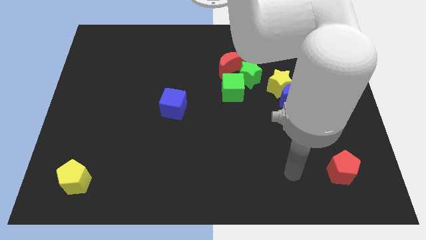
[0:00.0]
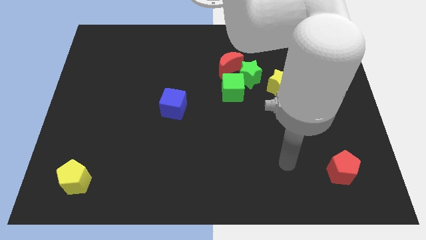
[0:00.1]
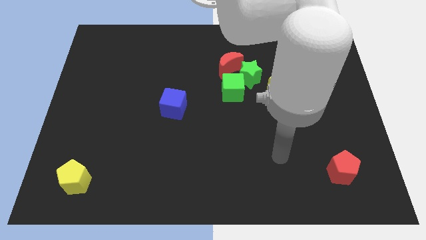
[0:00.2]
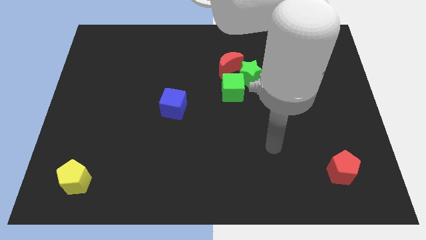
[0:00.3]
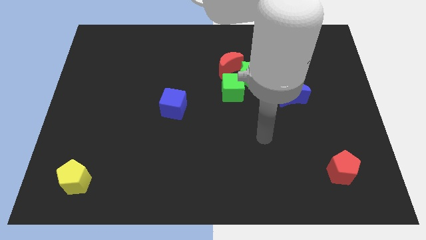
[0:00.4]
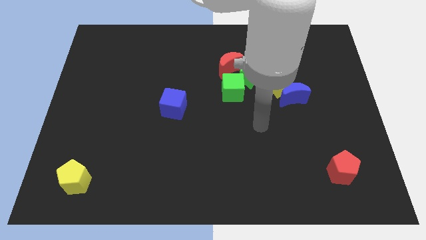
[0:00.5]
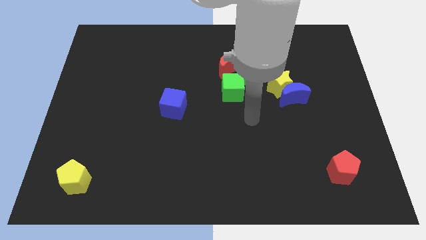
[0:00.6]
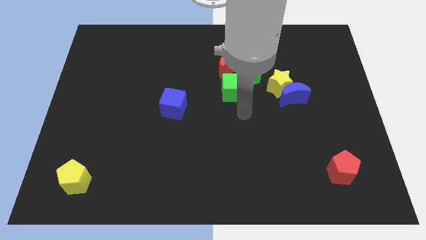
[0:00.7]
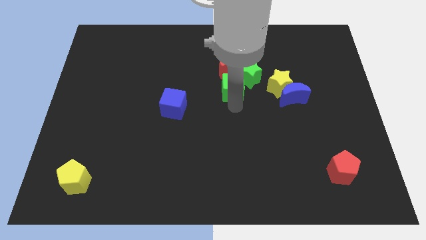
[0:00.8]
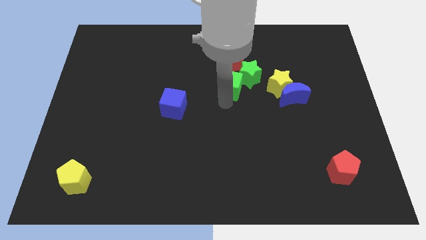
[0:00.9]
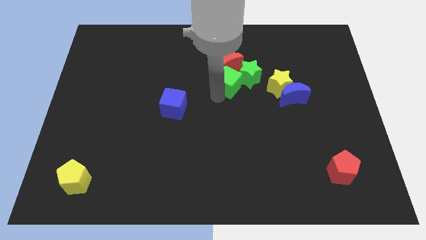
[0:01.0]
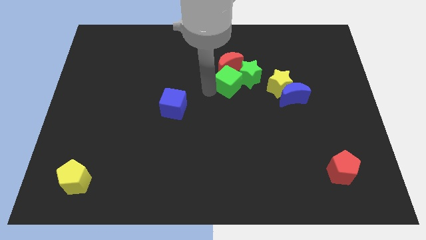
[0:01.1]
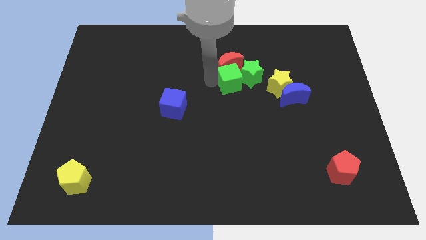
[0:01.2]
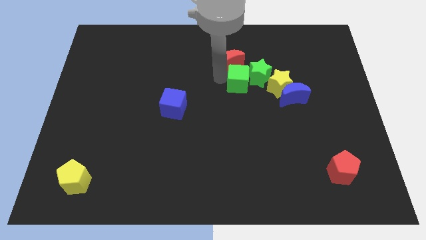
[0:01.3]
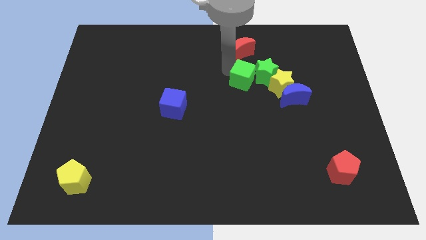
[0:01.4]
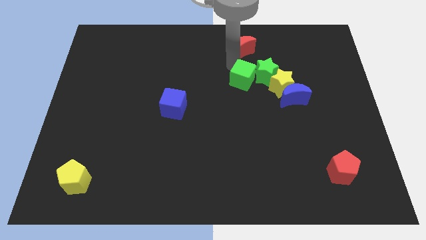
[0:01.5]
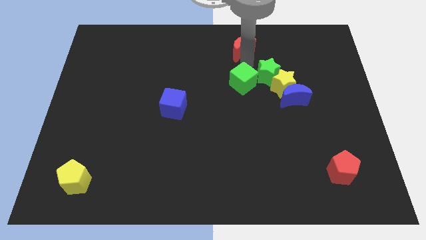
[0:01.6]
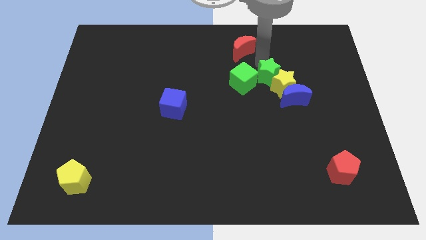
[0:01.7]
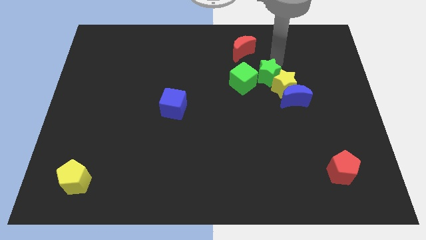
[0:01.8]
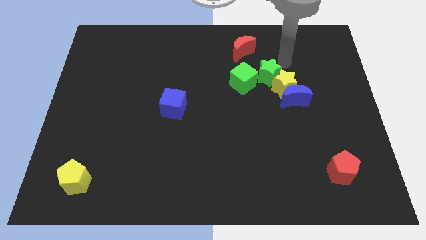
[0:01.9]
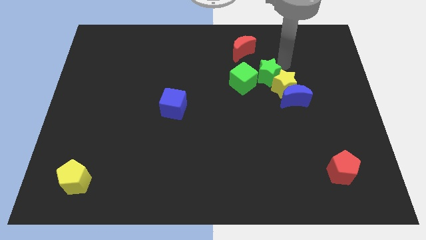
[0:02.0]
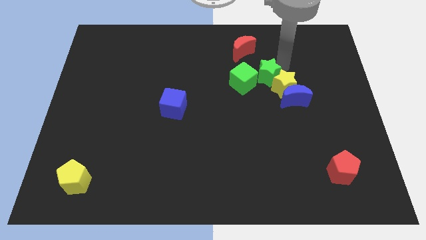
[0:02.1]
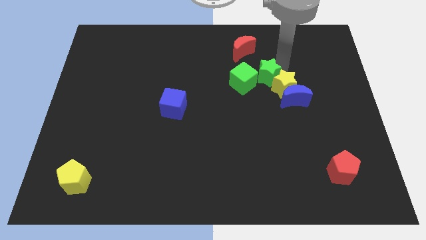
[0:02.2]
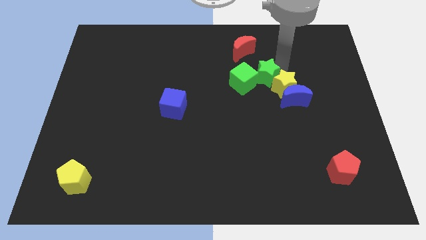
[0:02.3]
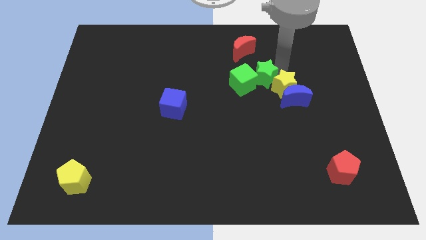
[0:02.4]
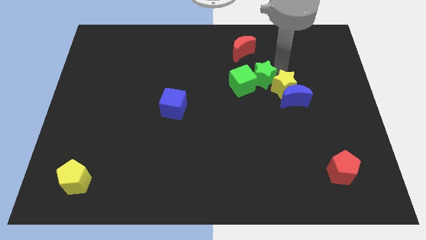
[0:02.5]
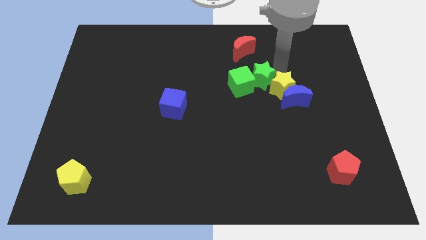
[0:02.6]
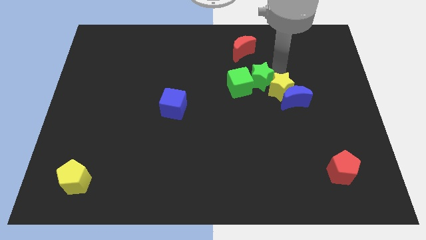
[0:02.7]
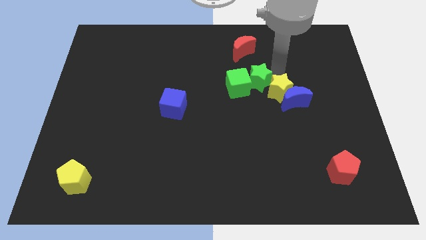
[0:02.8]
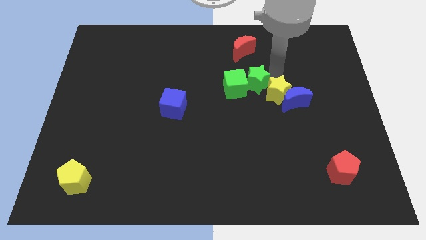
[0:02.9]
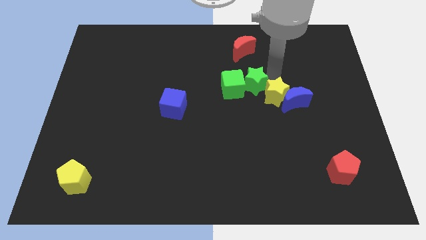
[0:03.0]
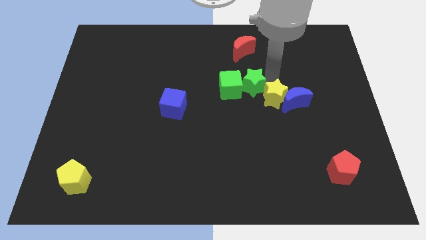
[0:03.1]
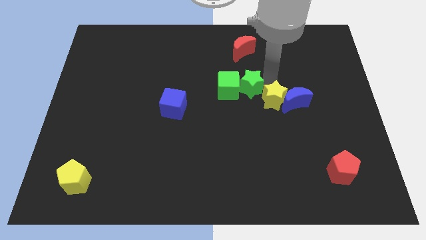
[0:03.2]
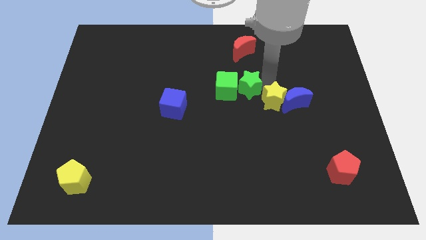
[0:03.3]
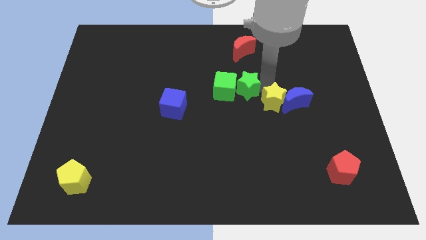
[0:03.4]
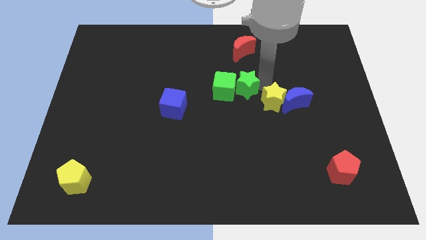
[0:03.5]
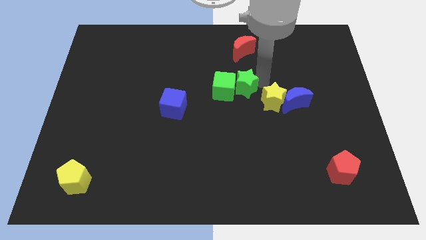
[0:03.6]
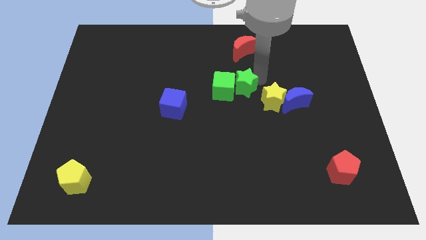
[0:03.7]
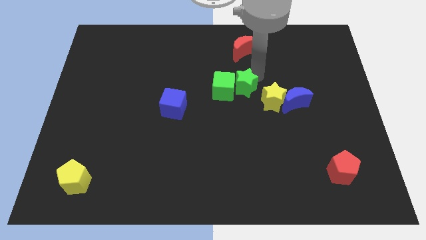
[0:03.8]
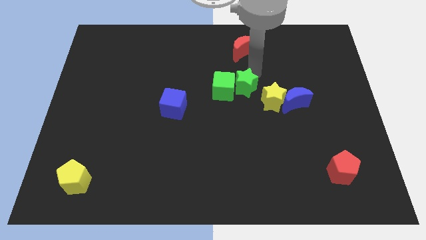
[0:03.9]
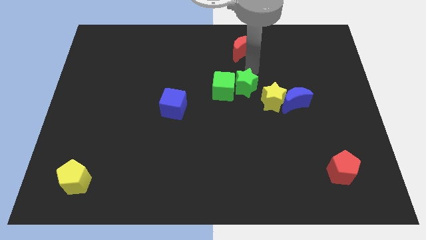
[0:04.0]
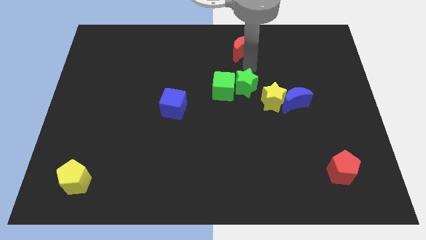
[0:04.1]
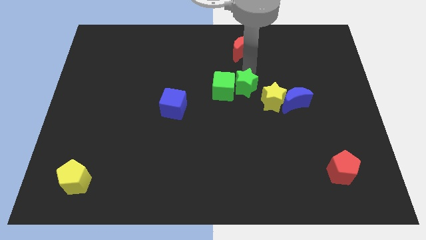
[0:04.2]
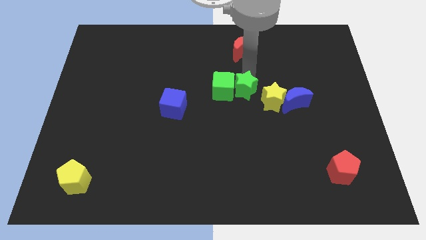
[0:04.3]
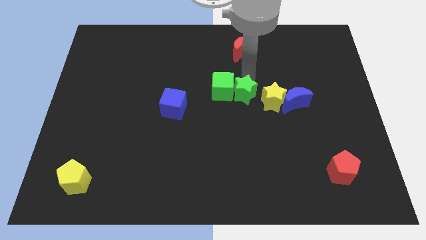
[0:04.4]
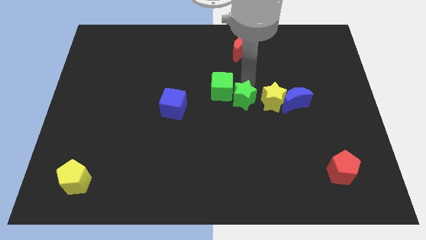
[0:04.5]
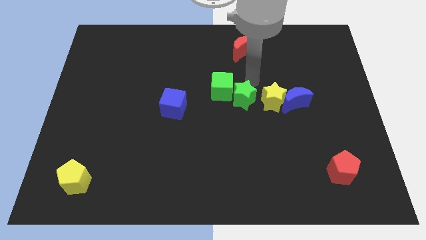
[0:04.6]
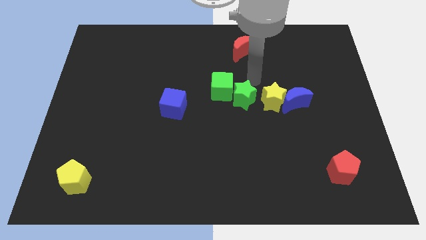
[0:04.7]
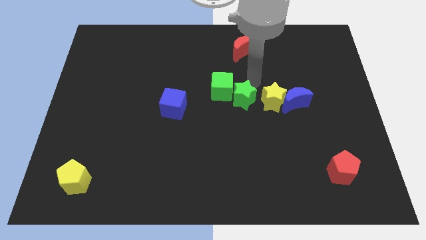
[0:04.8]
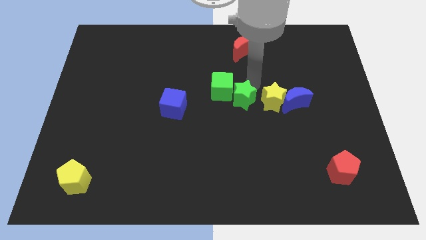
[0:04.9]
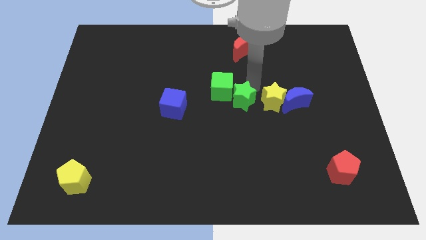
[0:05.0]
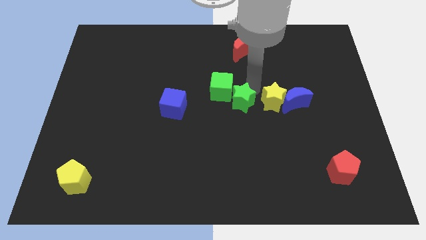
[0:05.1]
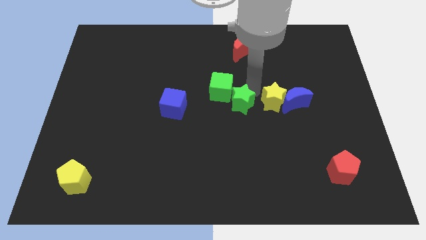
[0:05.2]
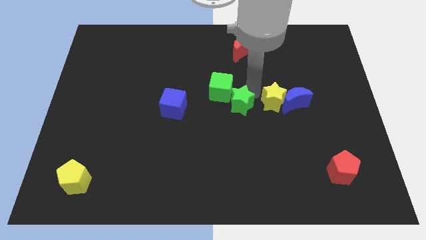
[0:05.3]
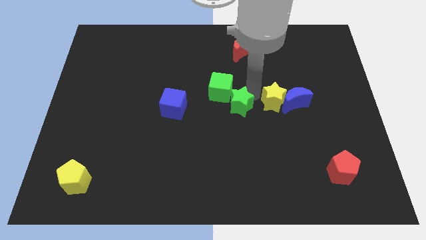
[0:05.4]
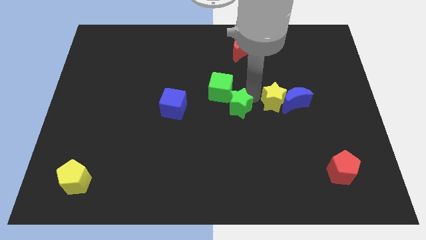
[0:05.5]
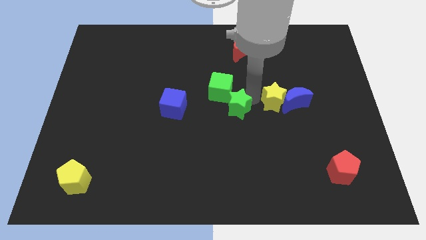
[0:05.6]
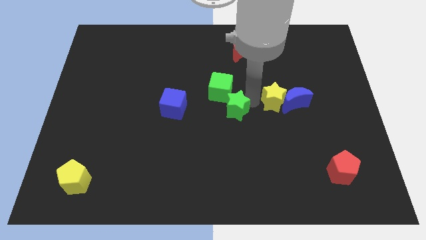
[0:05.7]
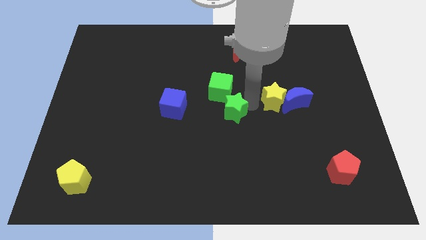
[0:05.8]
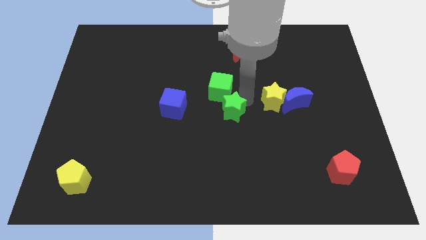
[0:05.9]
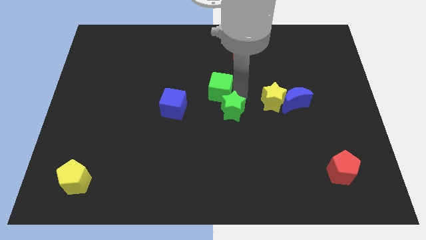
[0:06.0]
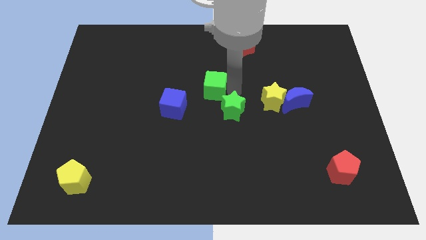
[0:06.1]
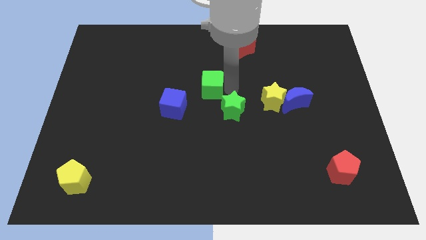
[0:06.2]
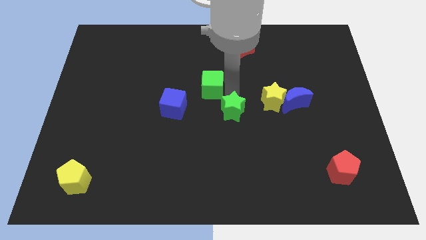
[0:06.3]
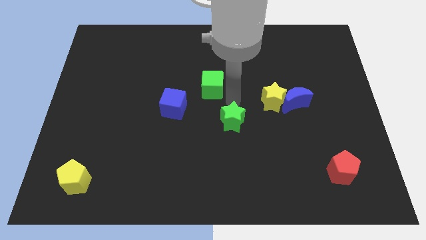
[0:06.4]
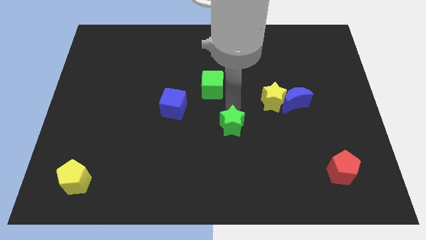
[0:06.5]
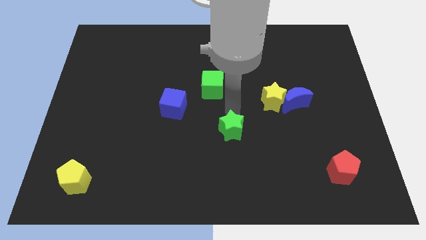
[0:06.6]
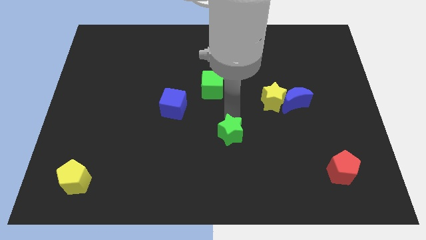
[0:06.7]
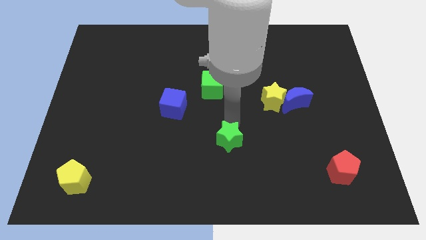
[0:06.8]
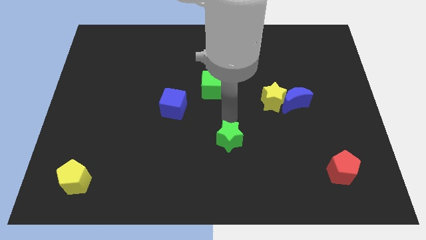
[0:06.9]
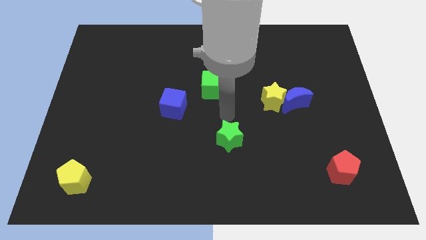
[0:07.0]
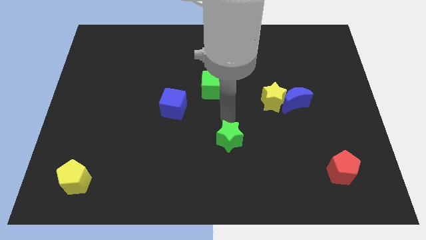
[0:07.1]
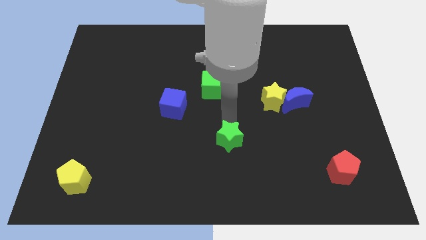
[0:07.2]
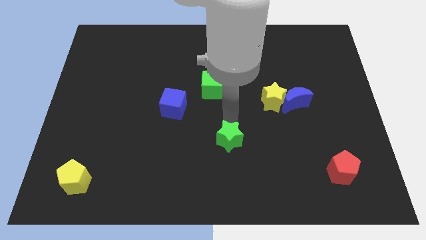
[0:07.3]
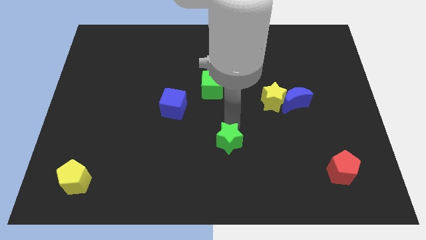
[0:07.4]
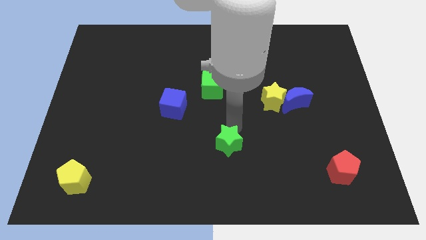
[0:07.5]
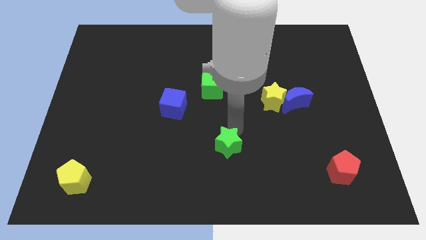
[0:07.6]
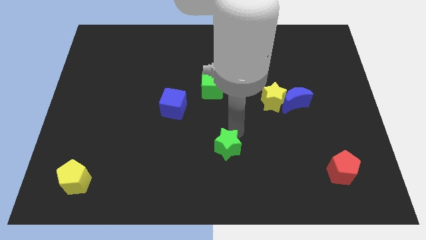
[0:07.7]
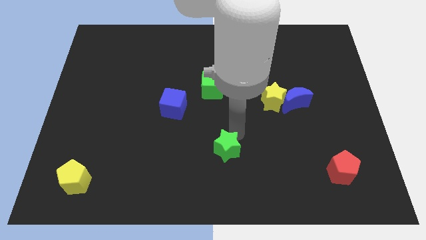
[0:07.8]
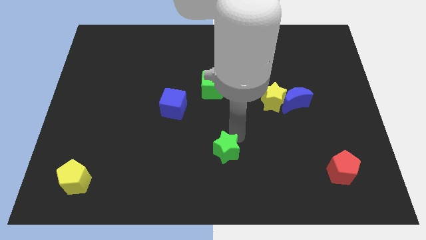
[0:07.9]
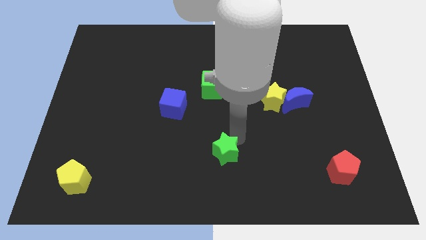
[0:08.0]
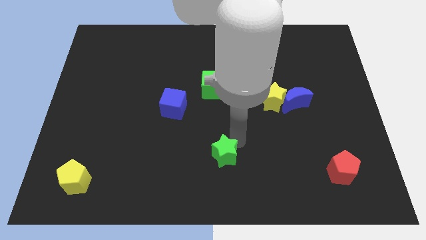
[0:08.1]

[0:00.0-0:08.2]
push the green star to the bottom side
